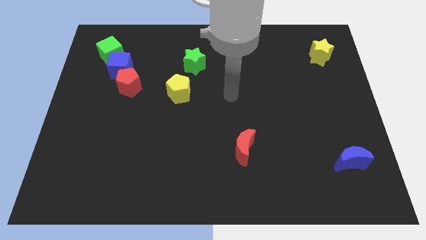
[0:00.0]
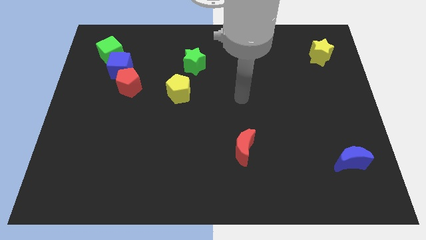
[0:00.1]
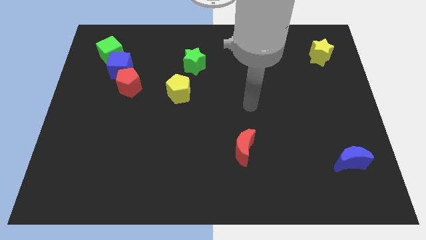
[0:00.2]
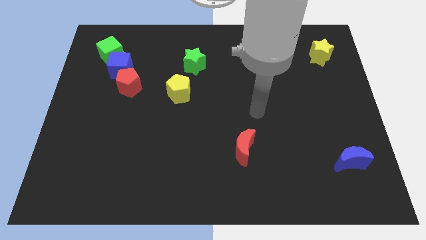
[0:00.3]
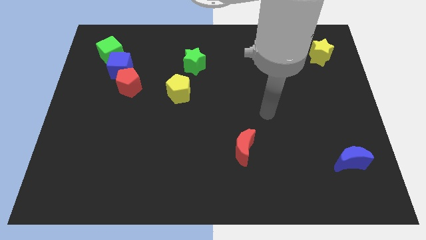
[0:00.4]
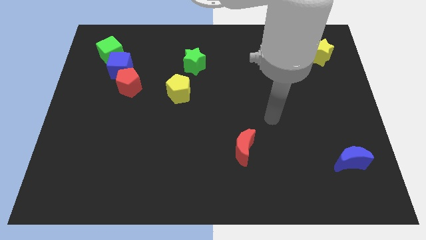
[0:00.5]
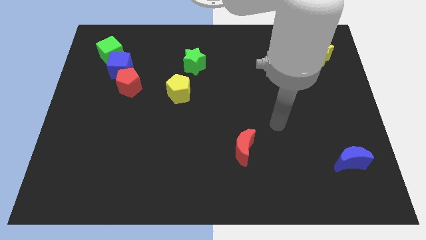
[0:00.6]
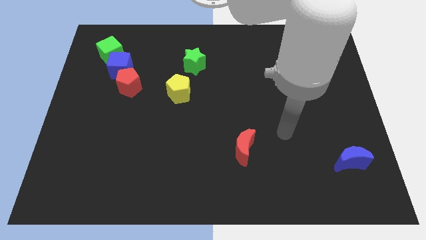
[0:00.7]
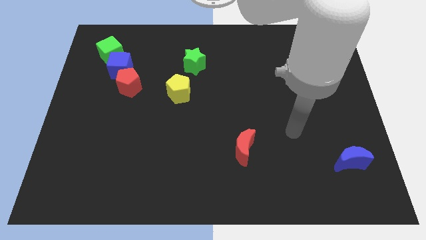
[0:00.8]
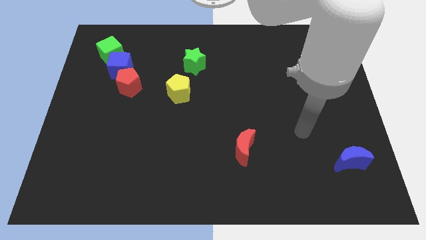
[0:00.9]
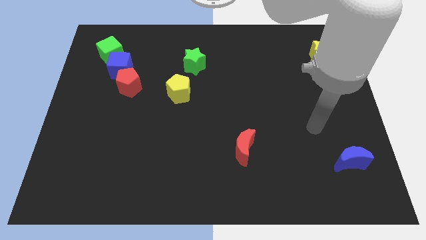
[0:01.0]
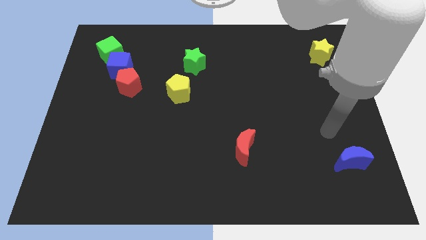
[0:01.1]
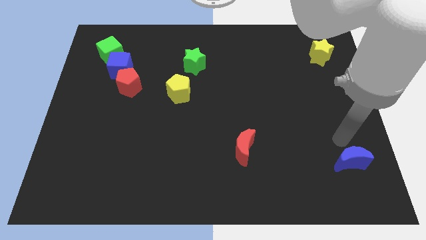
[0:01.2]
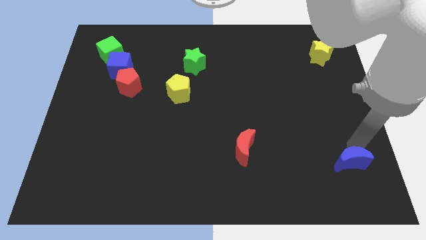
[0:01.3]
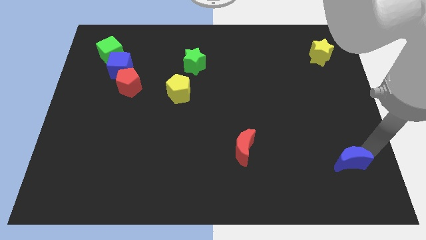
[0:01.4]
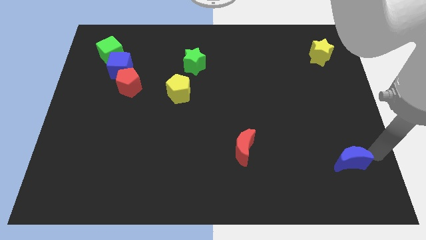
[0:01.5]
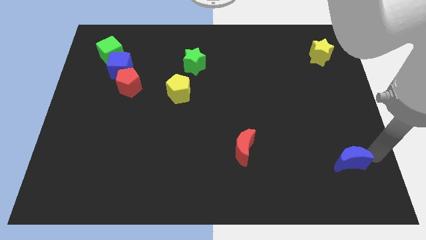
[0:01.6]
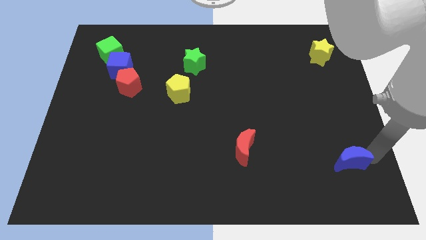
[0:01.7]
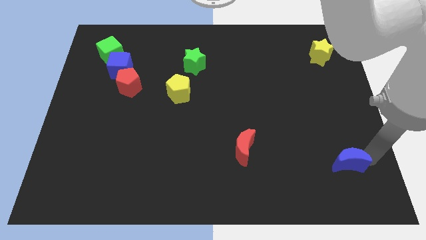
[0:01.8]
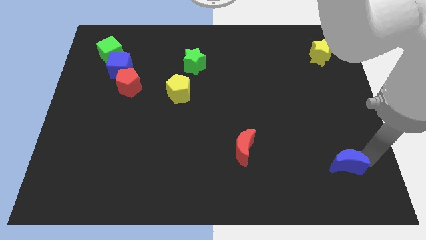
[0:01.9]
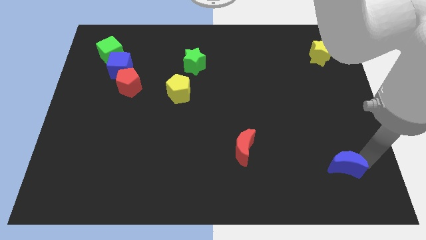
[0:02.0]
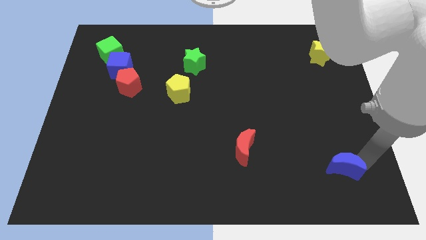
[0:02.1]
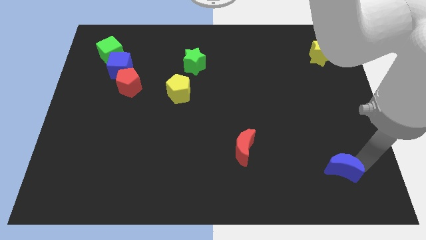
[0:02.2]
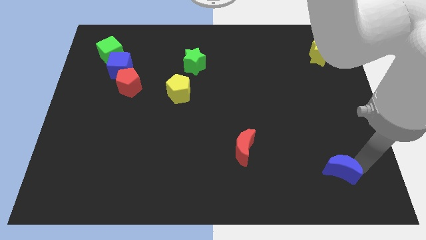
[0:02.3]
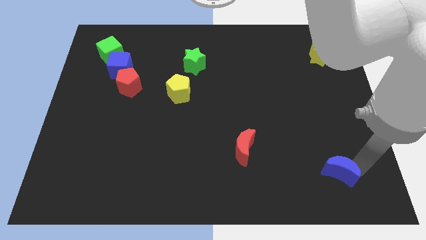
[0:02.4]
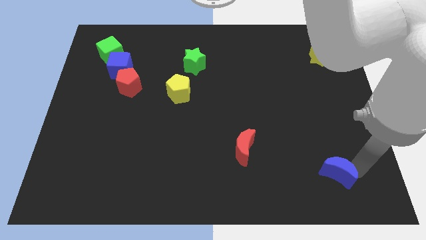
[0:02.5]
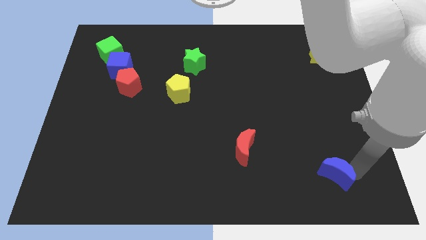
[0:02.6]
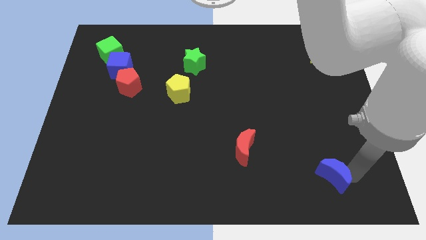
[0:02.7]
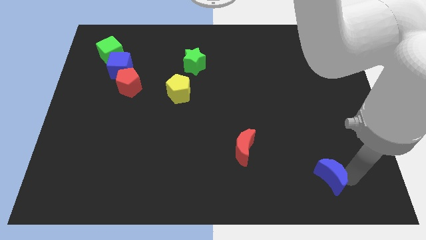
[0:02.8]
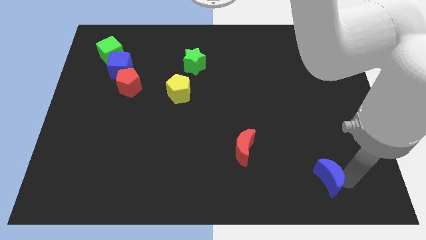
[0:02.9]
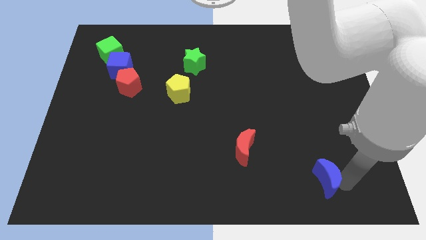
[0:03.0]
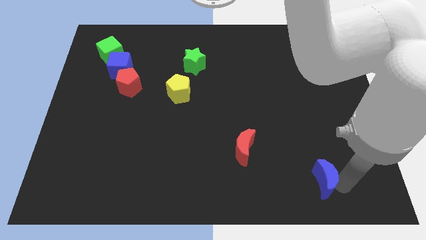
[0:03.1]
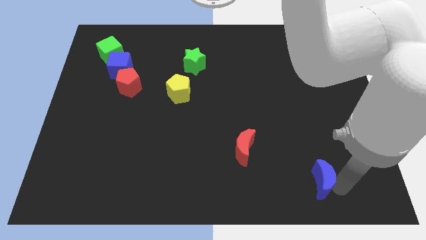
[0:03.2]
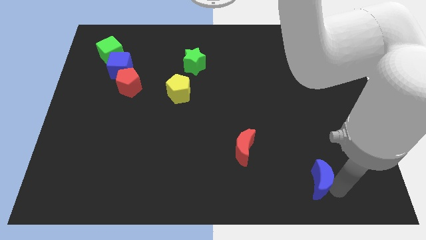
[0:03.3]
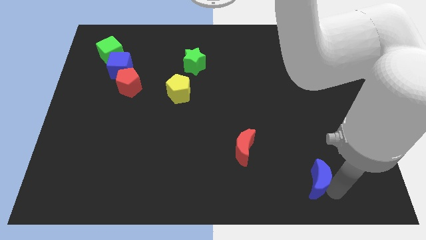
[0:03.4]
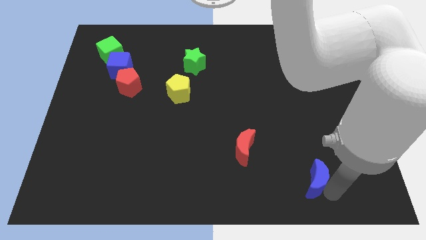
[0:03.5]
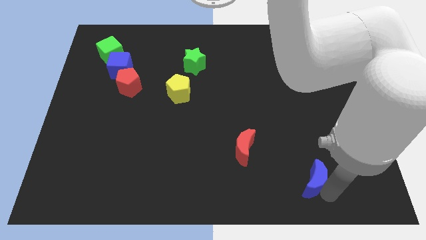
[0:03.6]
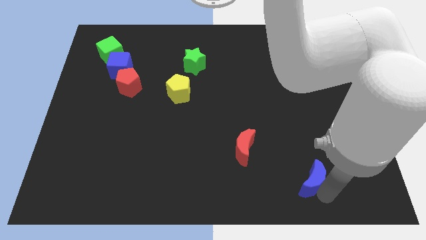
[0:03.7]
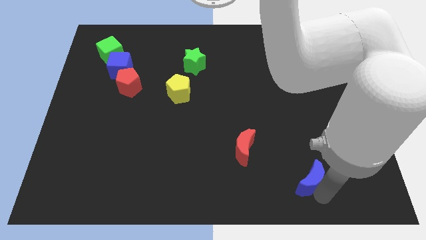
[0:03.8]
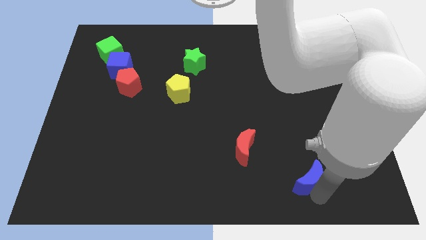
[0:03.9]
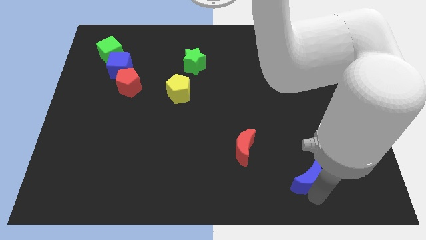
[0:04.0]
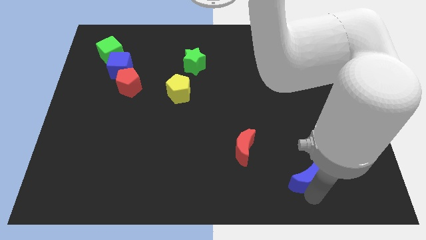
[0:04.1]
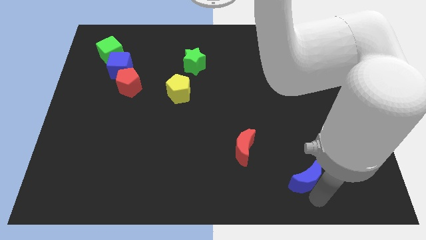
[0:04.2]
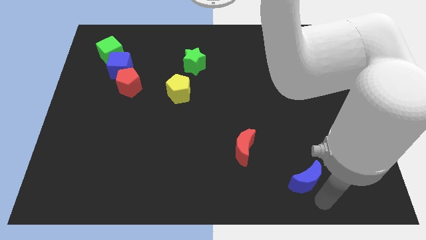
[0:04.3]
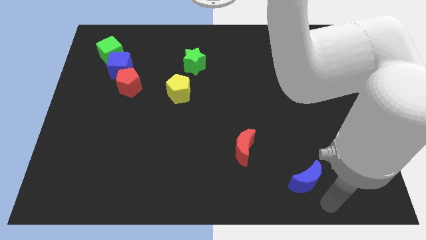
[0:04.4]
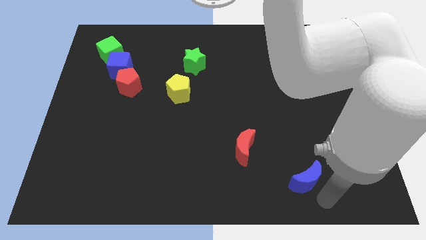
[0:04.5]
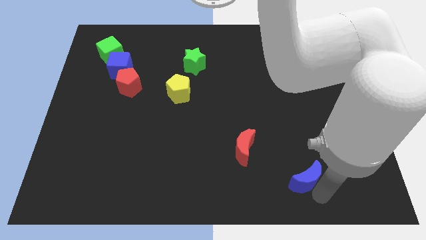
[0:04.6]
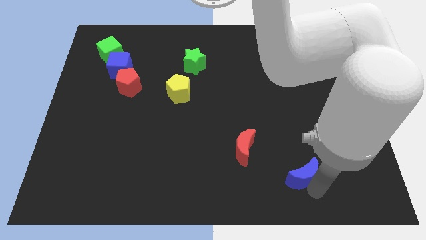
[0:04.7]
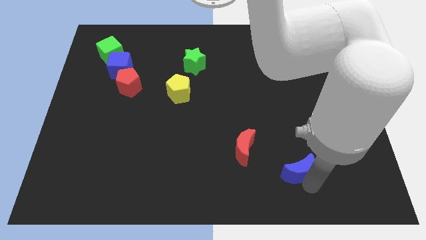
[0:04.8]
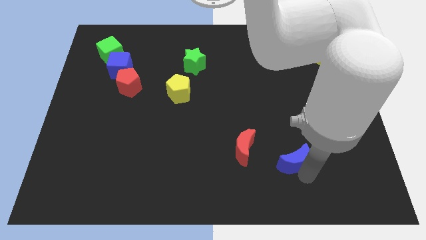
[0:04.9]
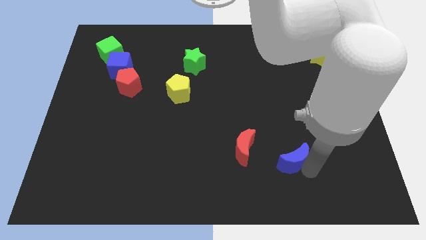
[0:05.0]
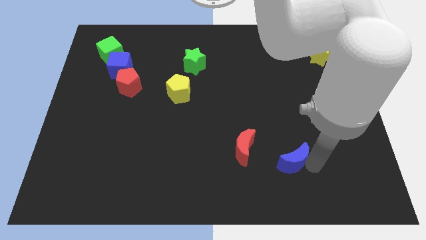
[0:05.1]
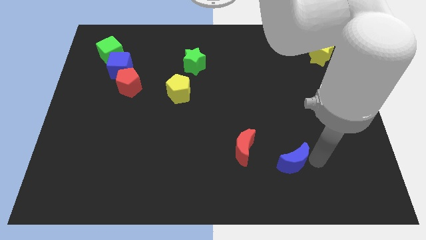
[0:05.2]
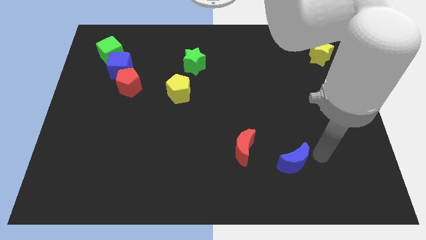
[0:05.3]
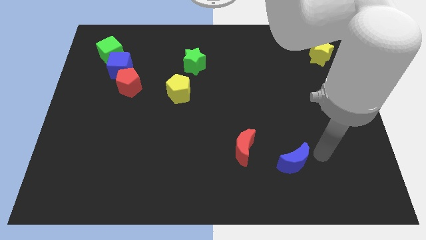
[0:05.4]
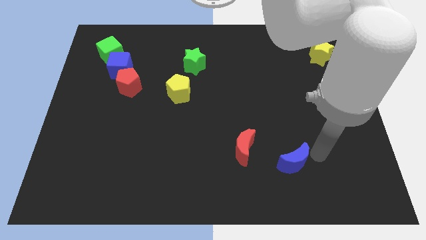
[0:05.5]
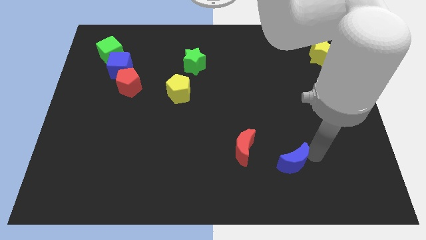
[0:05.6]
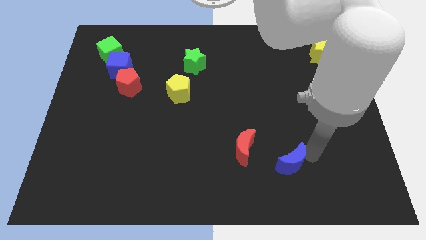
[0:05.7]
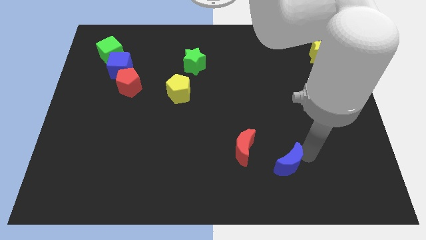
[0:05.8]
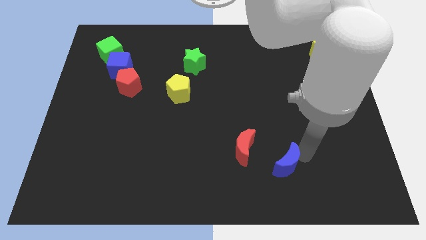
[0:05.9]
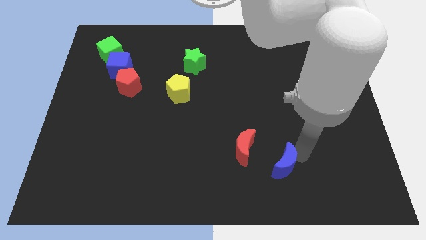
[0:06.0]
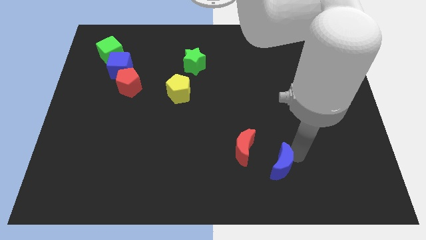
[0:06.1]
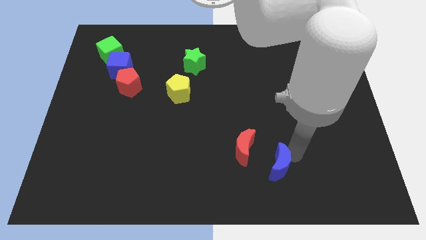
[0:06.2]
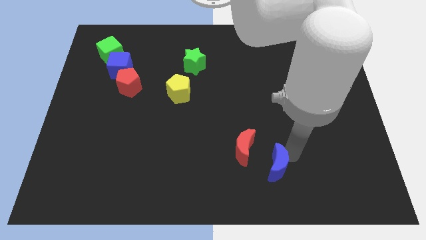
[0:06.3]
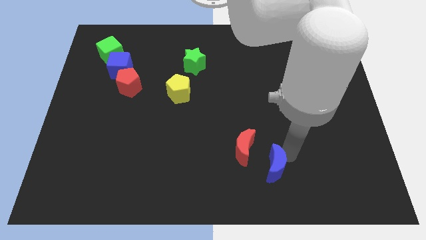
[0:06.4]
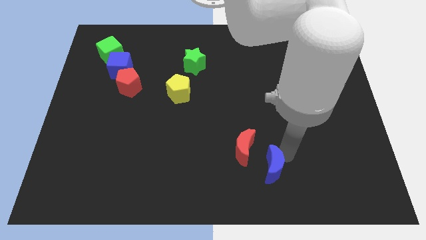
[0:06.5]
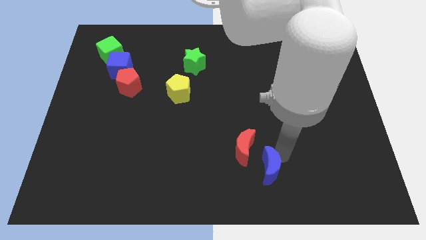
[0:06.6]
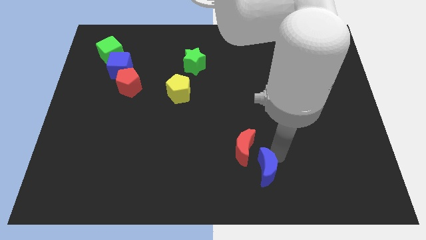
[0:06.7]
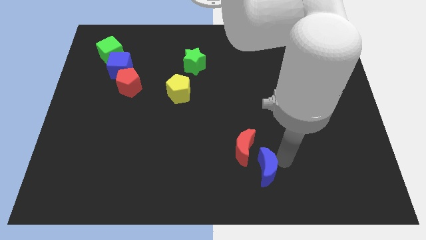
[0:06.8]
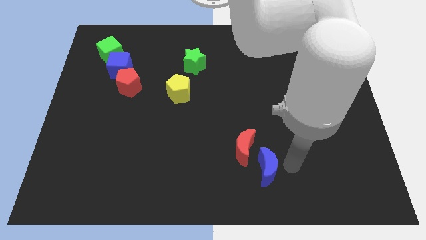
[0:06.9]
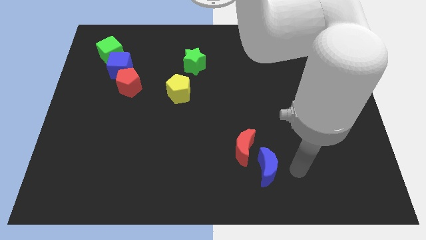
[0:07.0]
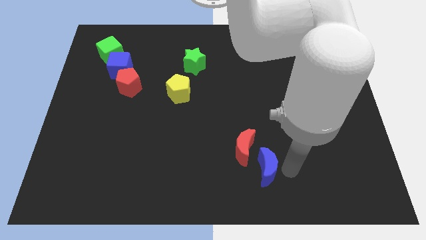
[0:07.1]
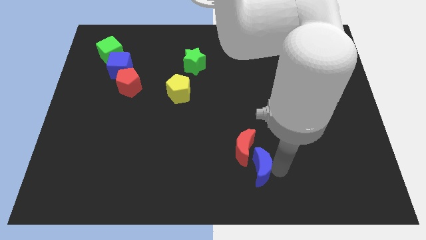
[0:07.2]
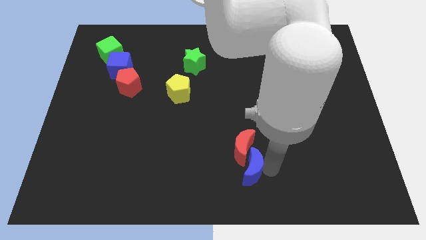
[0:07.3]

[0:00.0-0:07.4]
move the blue moon to the left

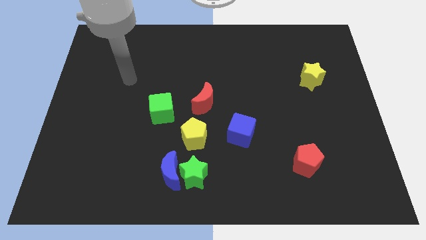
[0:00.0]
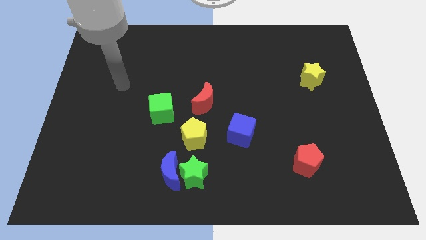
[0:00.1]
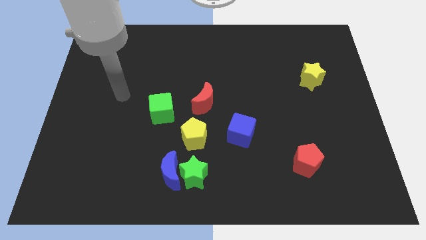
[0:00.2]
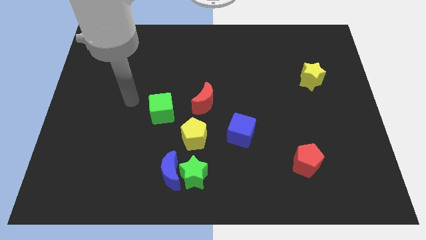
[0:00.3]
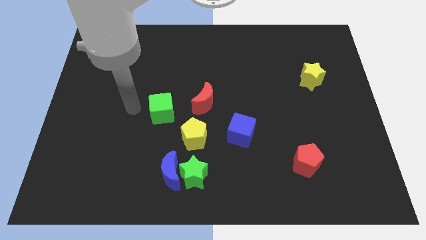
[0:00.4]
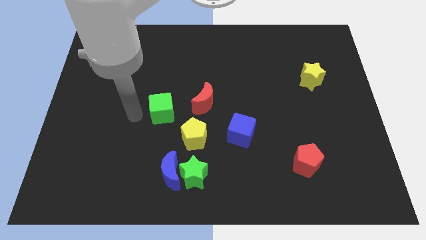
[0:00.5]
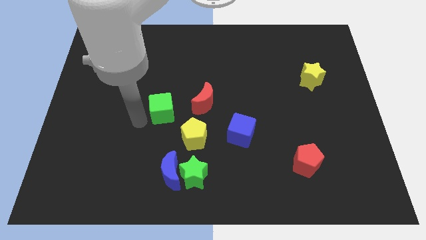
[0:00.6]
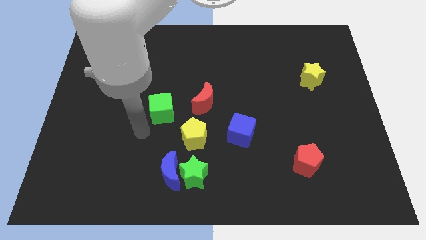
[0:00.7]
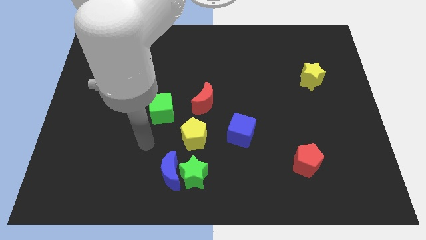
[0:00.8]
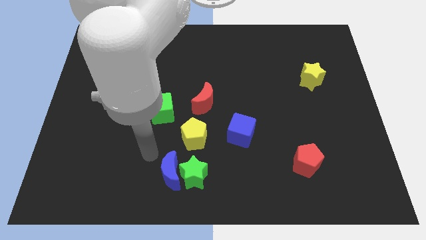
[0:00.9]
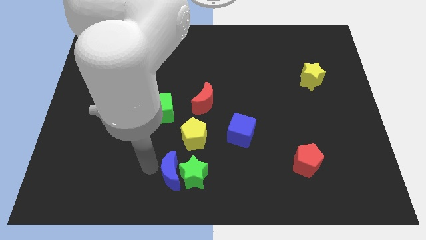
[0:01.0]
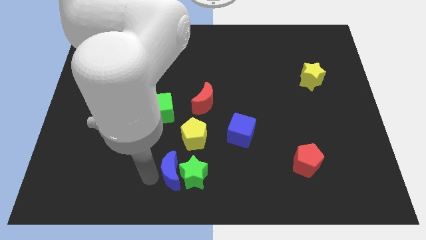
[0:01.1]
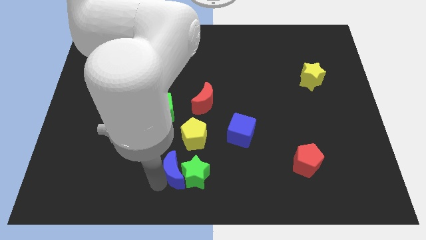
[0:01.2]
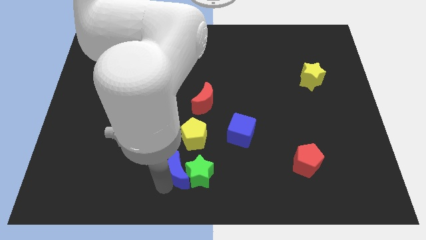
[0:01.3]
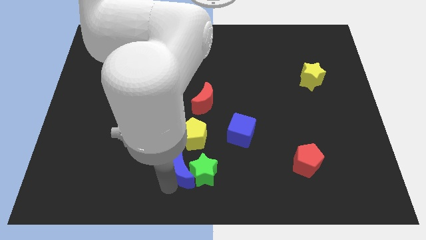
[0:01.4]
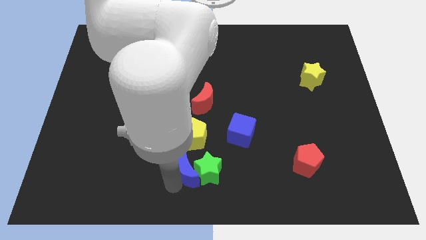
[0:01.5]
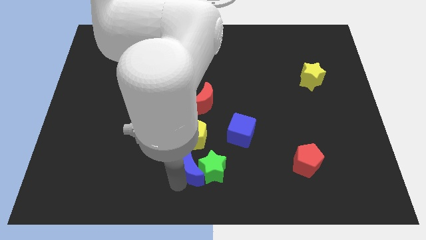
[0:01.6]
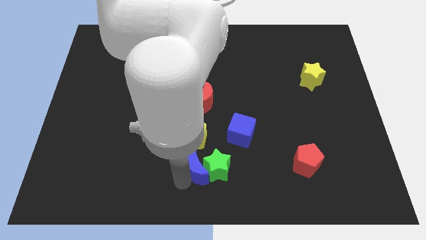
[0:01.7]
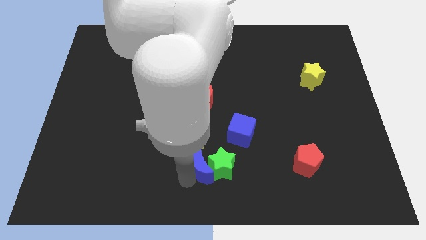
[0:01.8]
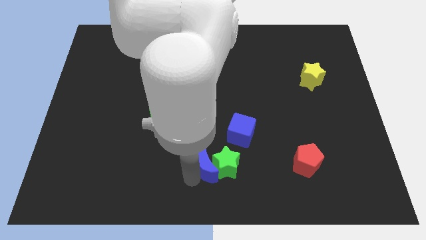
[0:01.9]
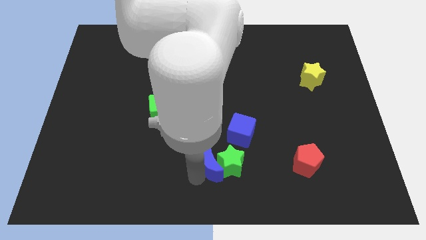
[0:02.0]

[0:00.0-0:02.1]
slightly move the green star upwards and right diagonally
